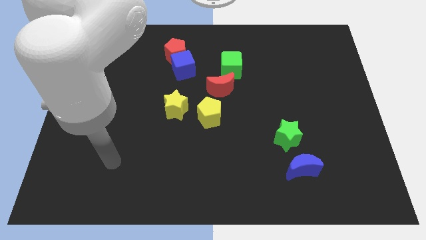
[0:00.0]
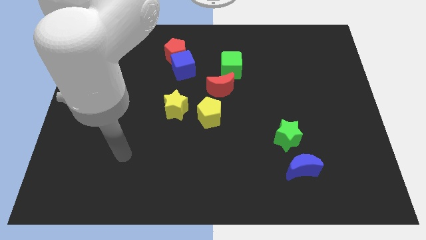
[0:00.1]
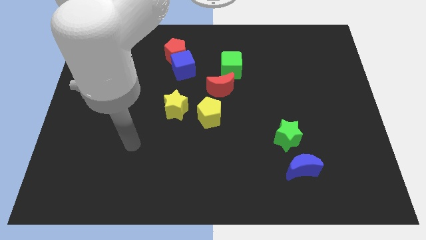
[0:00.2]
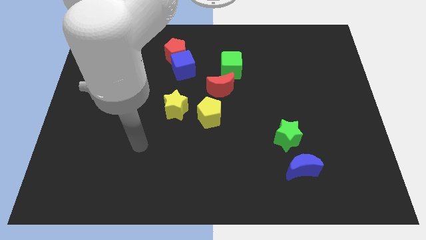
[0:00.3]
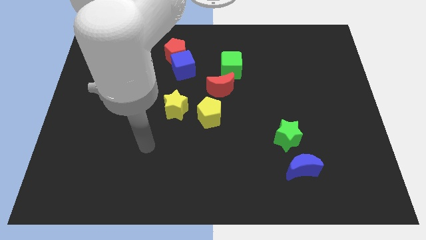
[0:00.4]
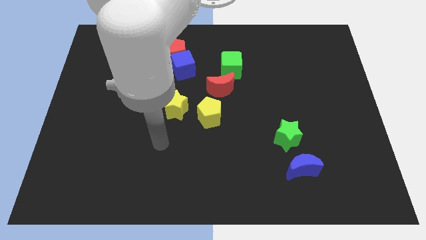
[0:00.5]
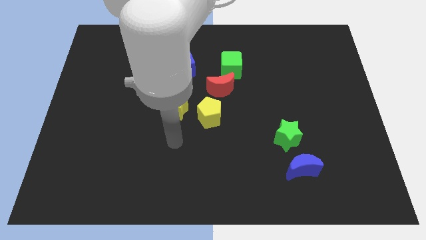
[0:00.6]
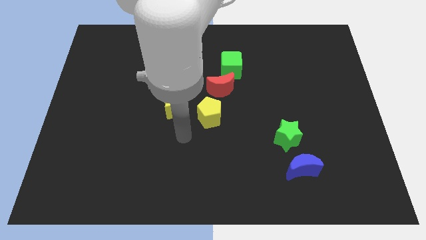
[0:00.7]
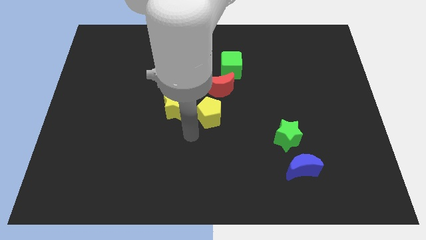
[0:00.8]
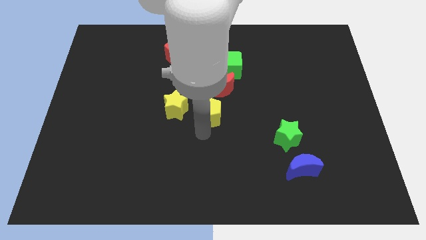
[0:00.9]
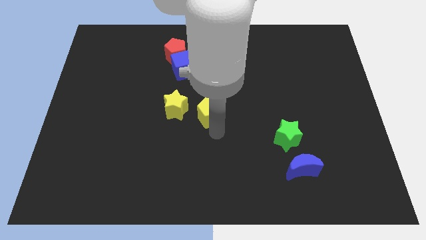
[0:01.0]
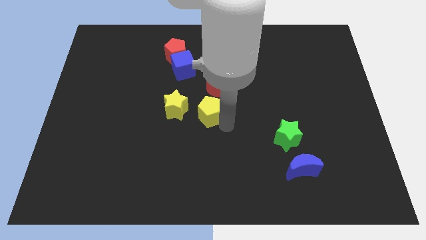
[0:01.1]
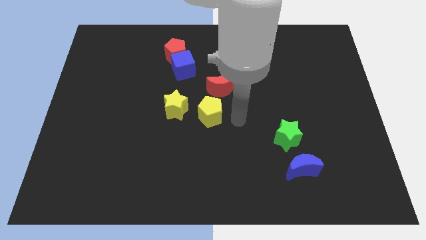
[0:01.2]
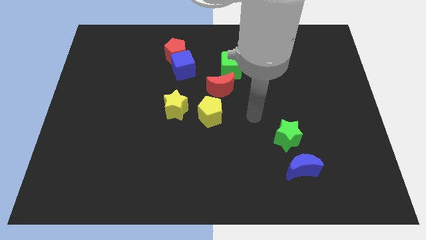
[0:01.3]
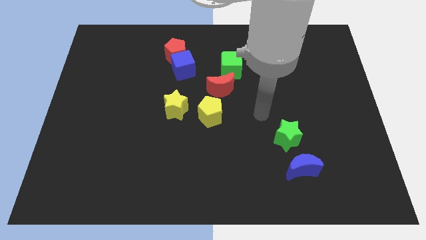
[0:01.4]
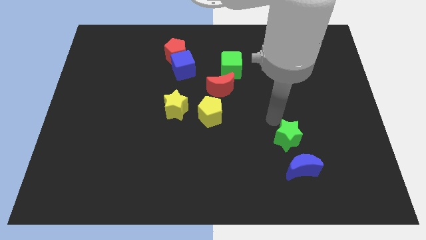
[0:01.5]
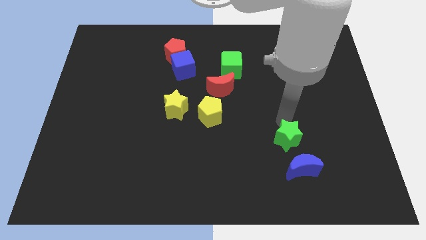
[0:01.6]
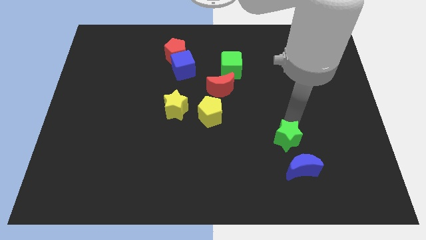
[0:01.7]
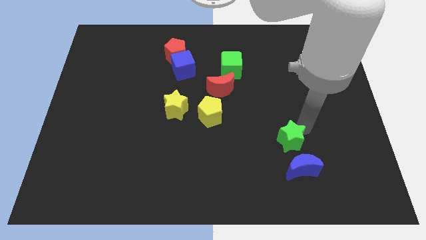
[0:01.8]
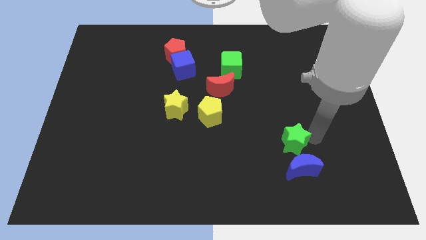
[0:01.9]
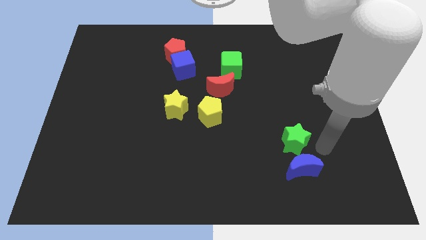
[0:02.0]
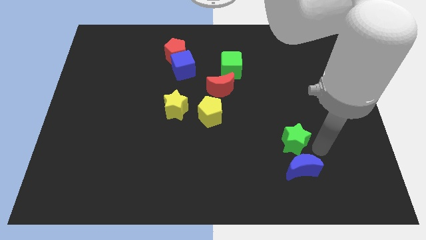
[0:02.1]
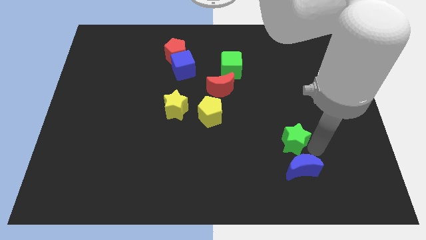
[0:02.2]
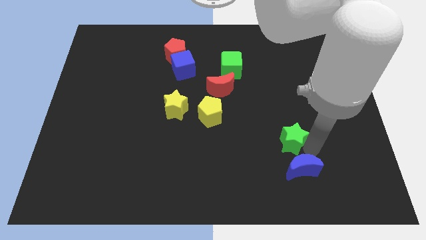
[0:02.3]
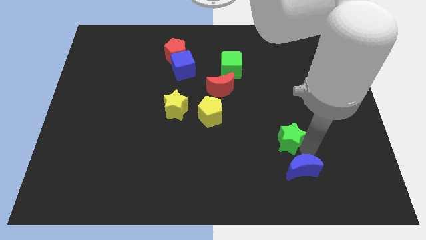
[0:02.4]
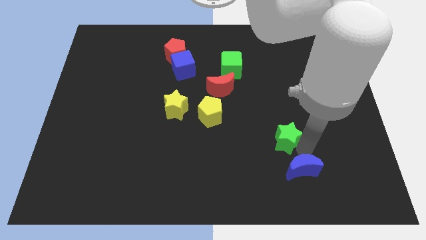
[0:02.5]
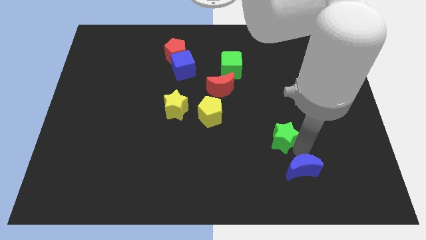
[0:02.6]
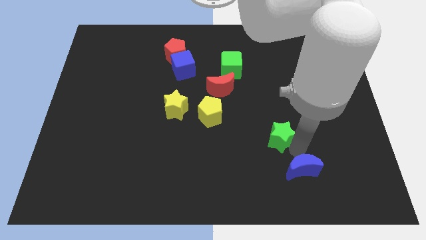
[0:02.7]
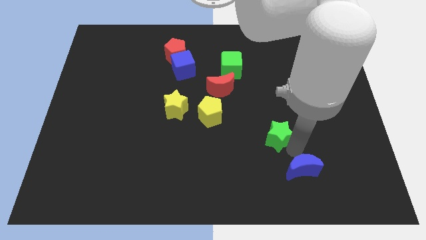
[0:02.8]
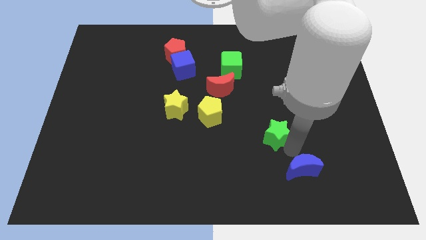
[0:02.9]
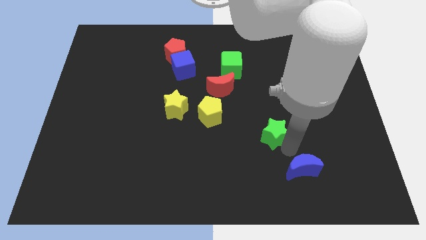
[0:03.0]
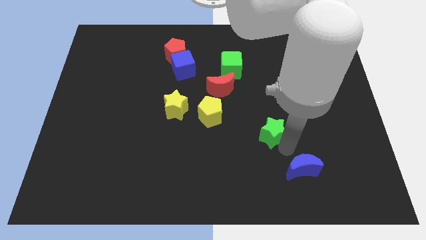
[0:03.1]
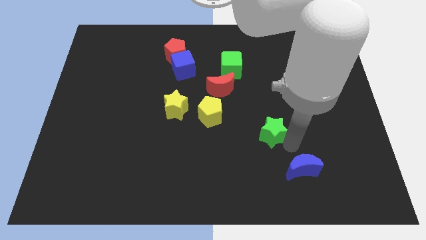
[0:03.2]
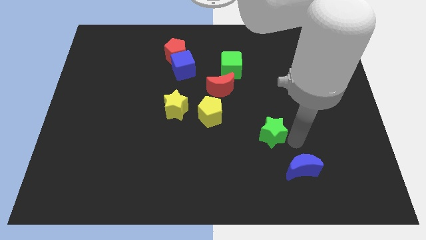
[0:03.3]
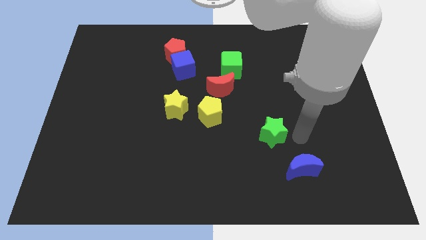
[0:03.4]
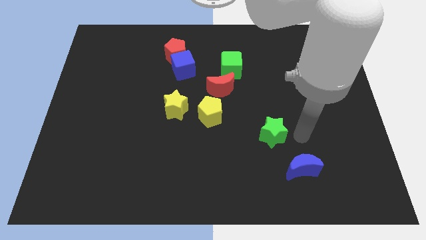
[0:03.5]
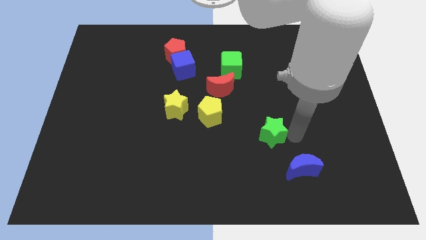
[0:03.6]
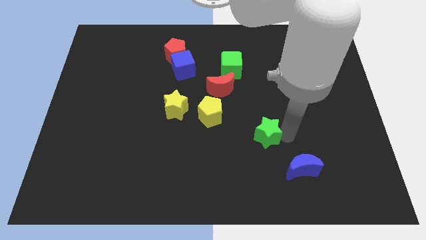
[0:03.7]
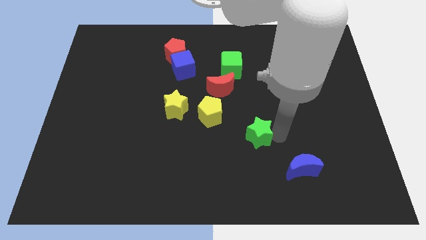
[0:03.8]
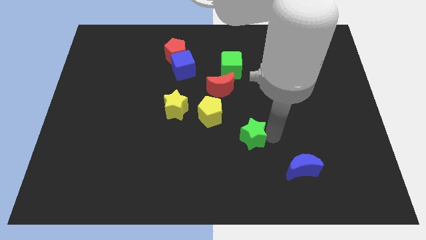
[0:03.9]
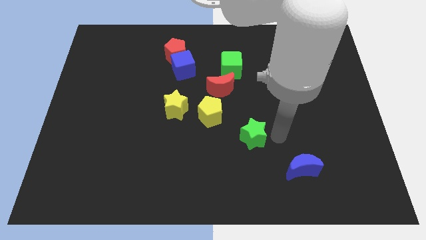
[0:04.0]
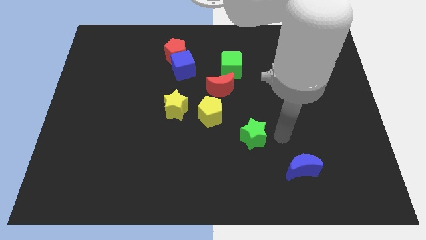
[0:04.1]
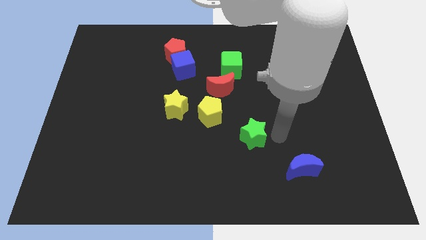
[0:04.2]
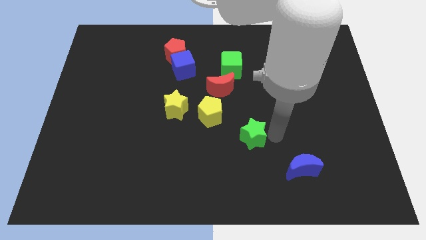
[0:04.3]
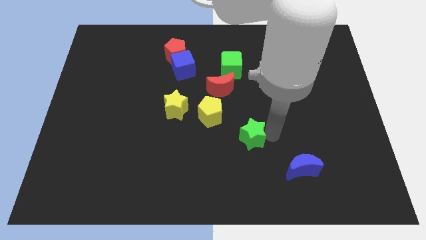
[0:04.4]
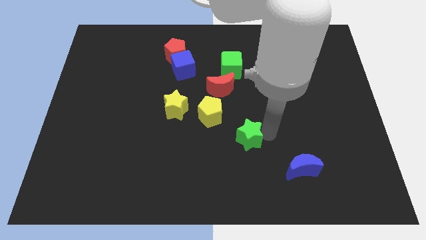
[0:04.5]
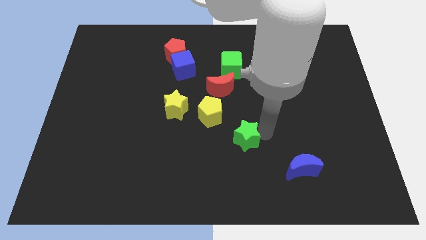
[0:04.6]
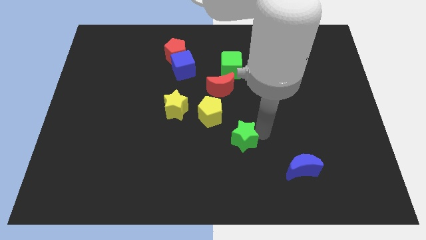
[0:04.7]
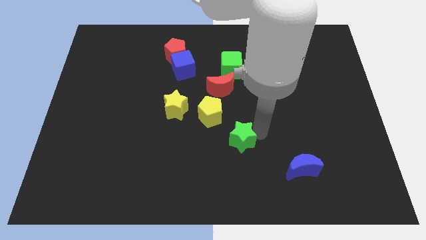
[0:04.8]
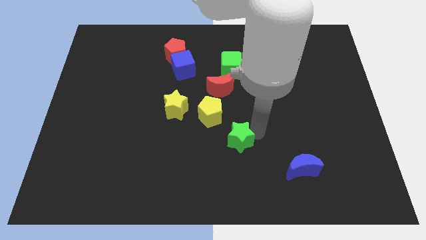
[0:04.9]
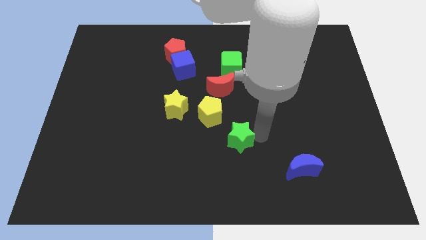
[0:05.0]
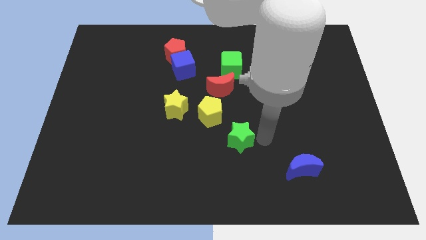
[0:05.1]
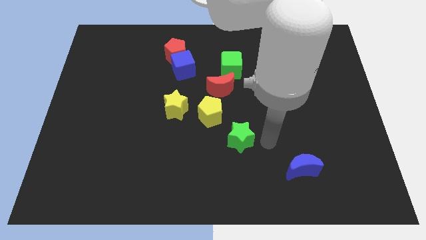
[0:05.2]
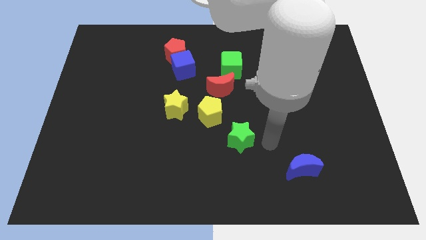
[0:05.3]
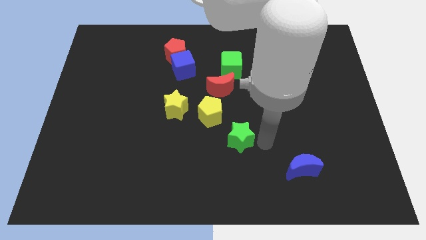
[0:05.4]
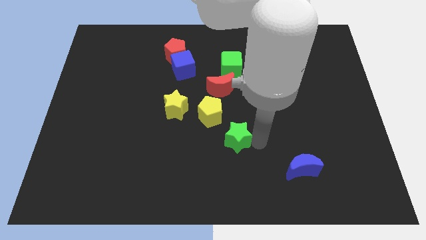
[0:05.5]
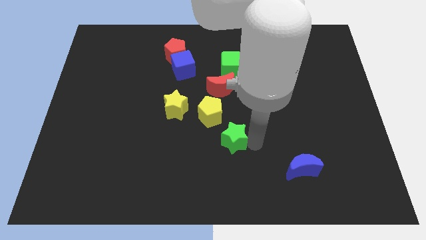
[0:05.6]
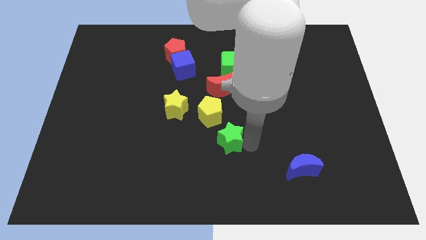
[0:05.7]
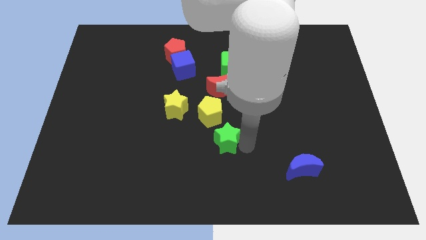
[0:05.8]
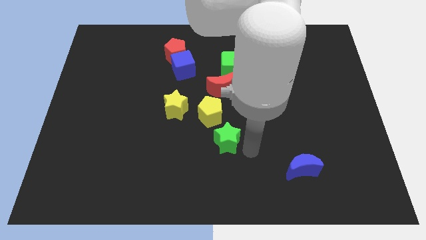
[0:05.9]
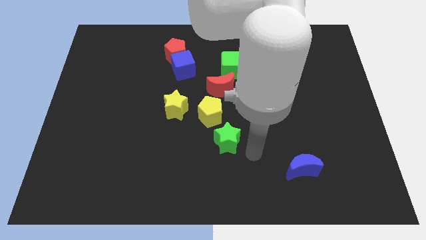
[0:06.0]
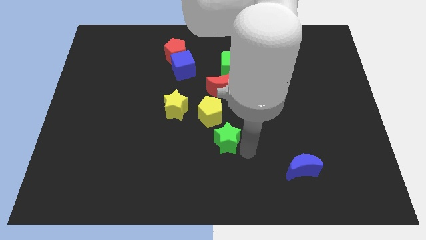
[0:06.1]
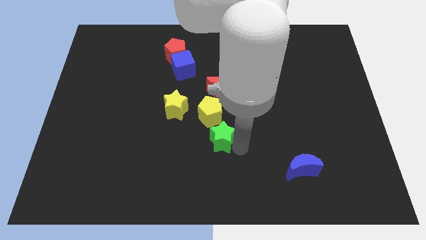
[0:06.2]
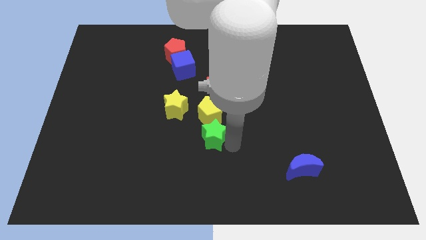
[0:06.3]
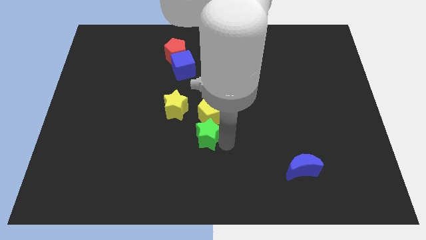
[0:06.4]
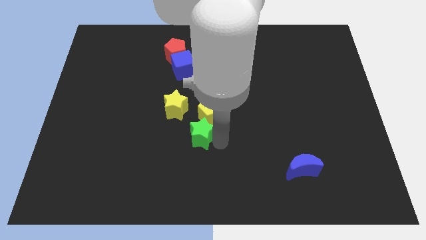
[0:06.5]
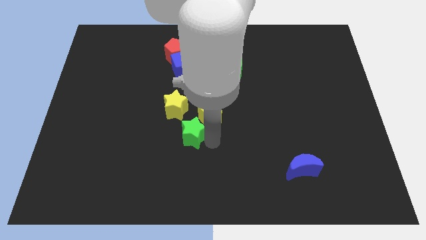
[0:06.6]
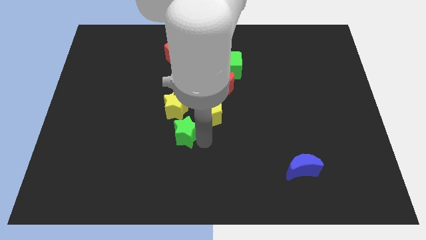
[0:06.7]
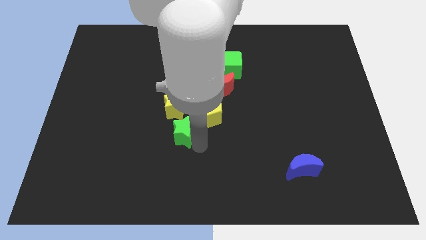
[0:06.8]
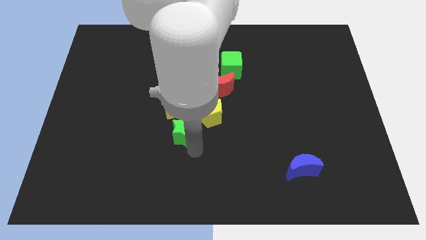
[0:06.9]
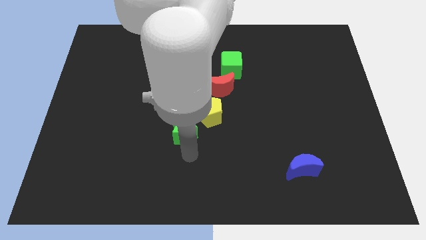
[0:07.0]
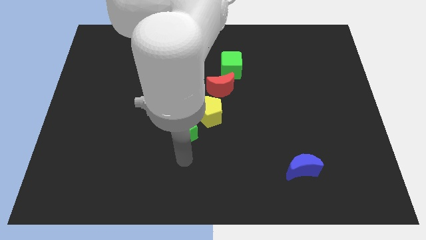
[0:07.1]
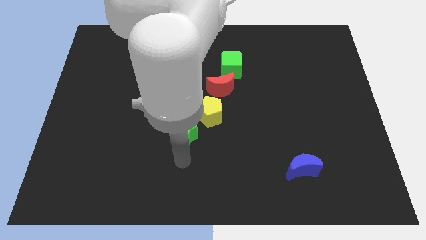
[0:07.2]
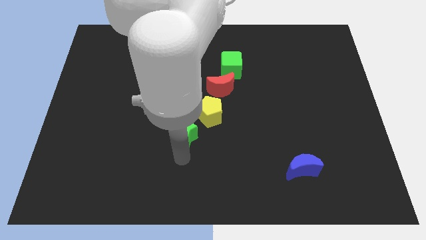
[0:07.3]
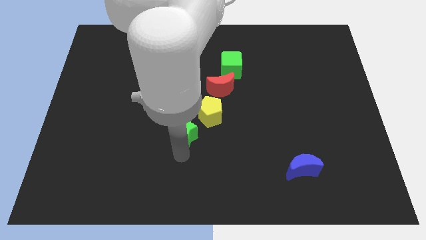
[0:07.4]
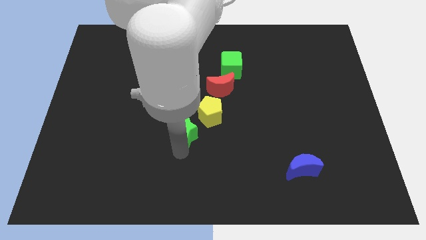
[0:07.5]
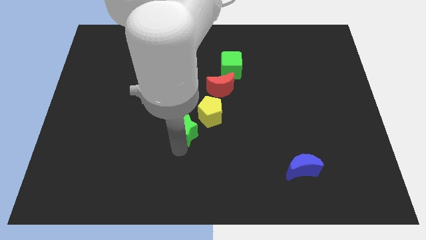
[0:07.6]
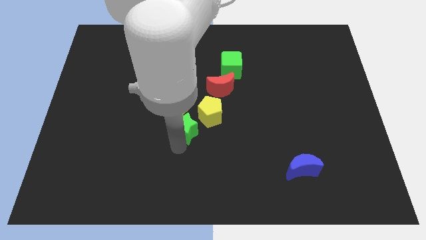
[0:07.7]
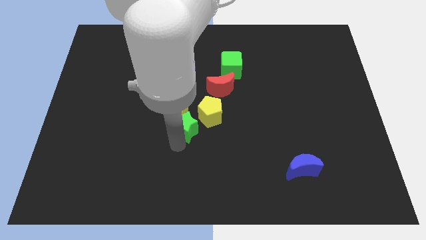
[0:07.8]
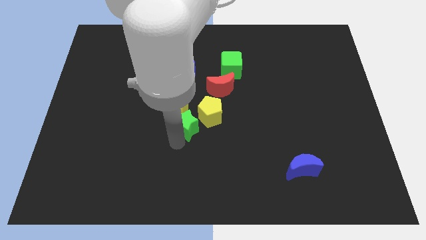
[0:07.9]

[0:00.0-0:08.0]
slide the green star next to the yellow star
